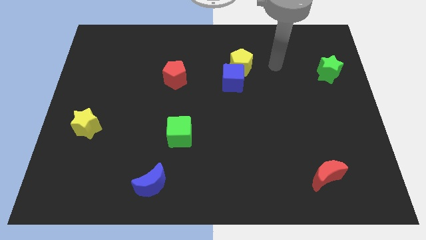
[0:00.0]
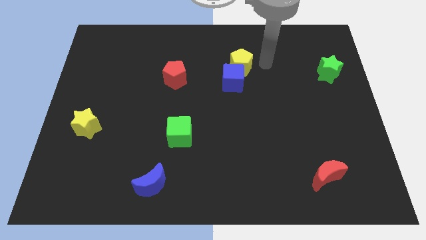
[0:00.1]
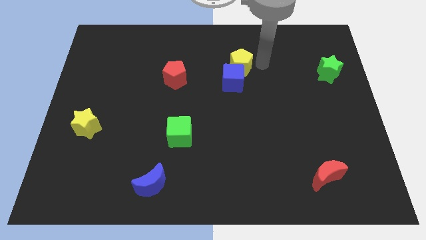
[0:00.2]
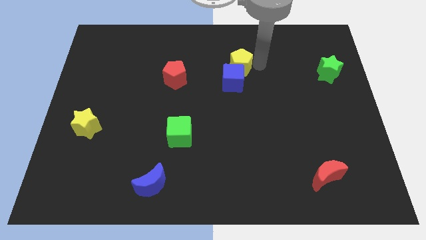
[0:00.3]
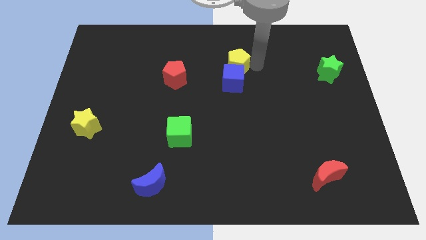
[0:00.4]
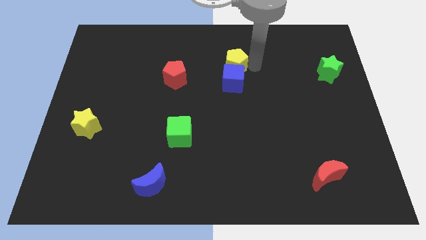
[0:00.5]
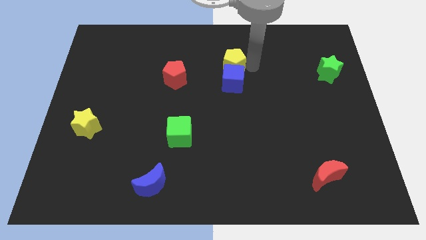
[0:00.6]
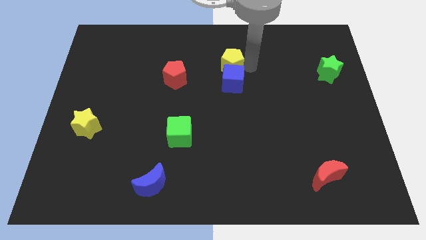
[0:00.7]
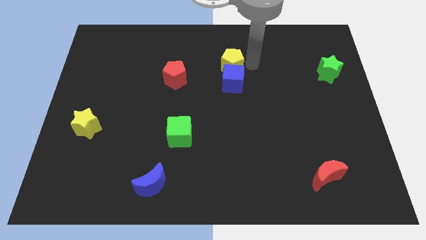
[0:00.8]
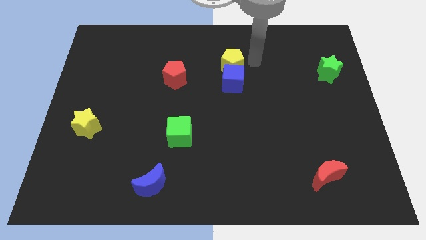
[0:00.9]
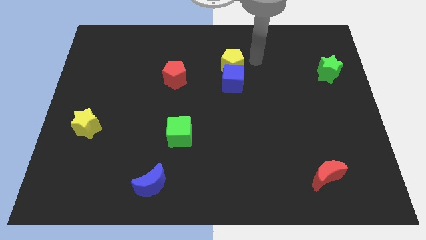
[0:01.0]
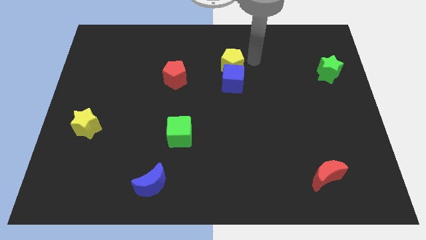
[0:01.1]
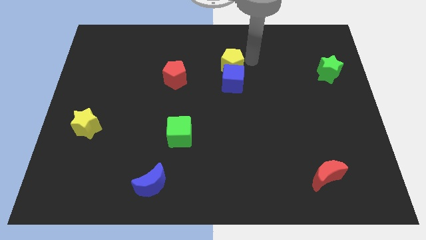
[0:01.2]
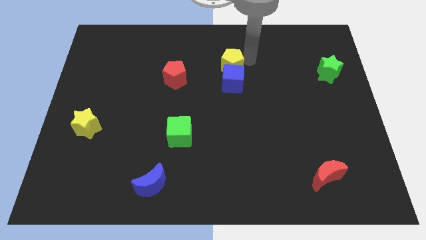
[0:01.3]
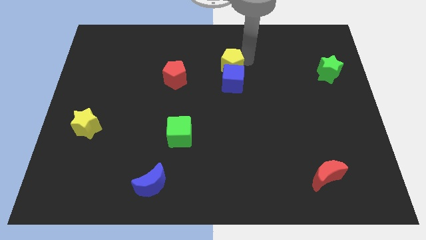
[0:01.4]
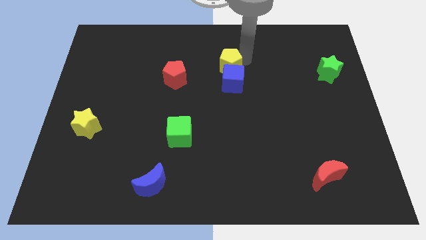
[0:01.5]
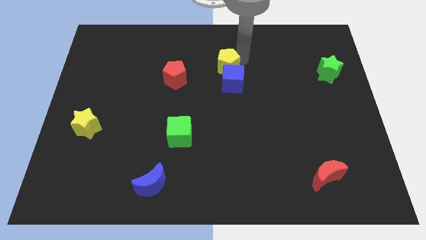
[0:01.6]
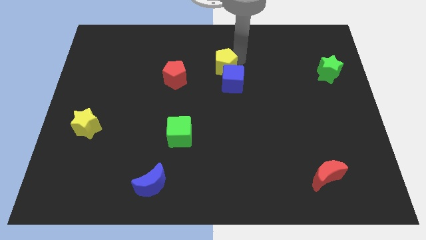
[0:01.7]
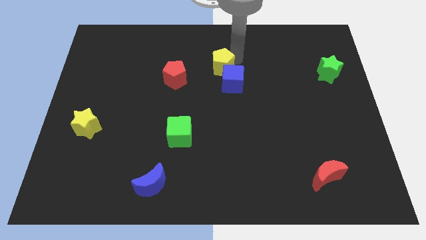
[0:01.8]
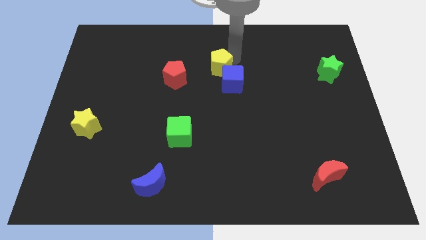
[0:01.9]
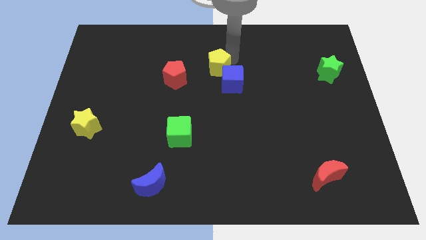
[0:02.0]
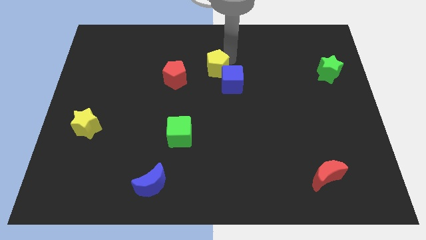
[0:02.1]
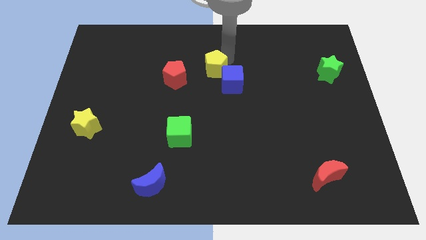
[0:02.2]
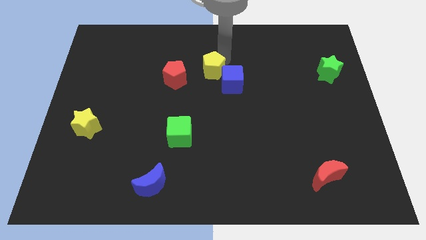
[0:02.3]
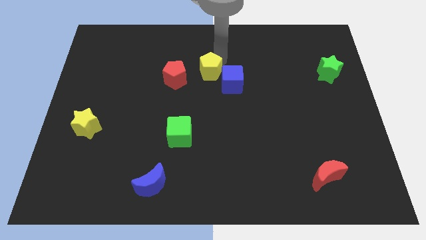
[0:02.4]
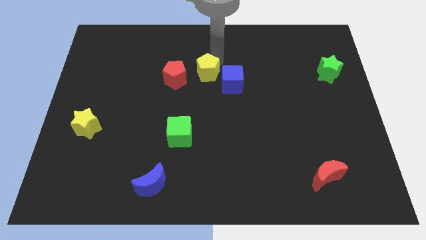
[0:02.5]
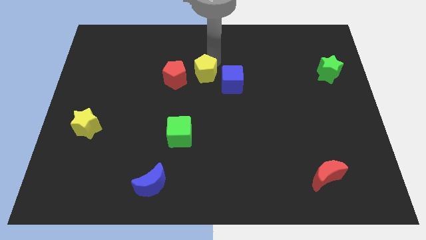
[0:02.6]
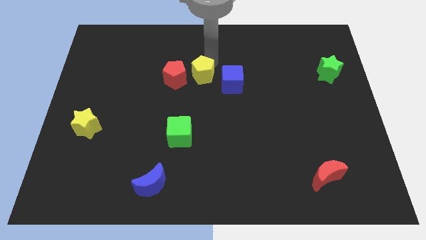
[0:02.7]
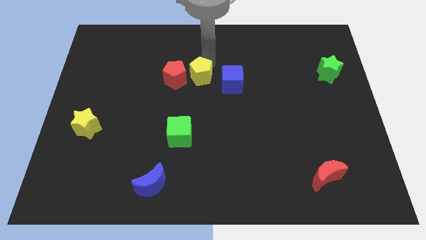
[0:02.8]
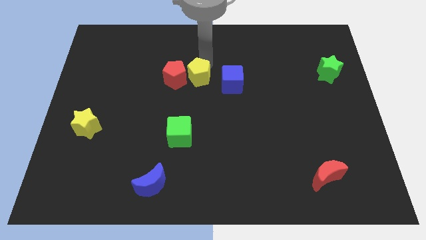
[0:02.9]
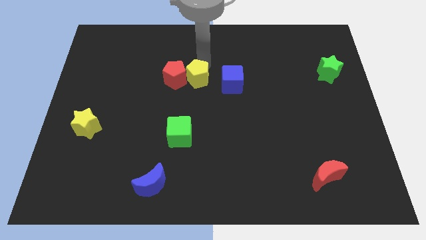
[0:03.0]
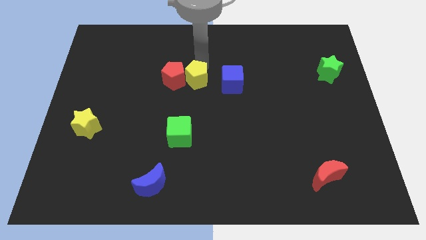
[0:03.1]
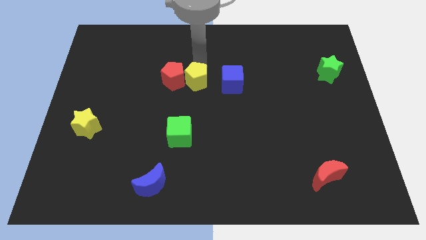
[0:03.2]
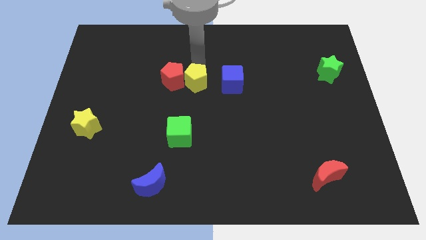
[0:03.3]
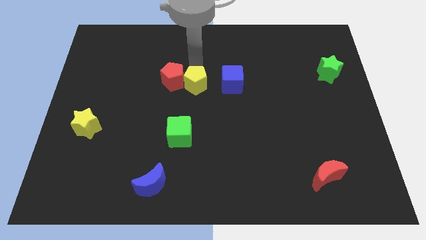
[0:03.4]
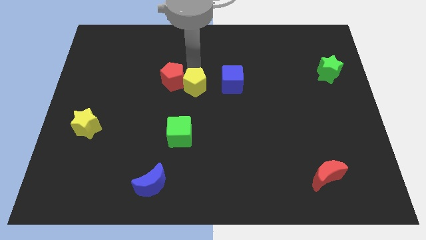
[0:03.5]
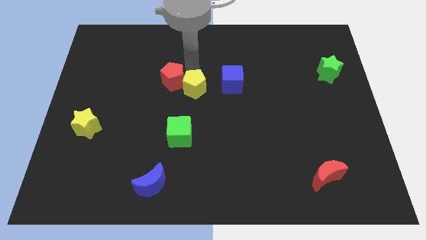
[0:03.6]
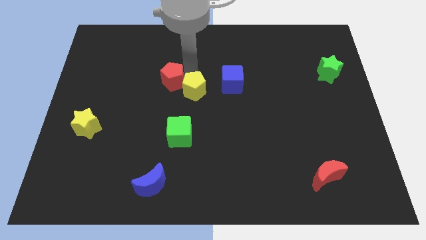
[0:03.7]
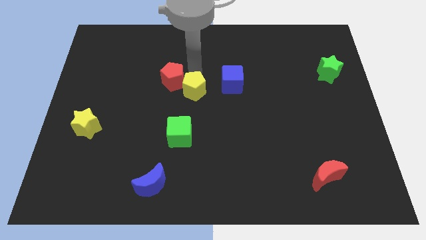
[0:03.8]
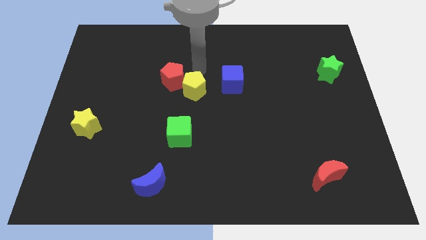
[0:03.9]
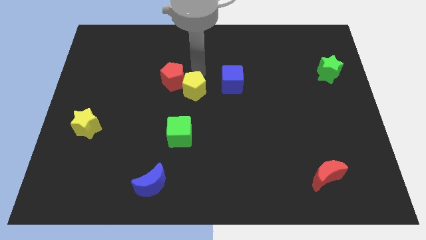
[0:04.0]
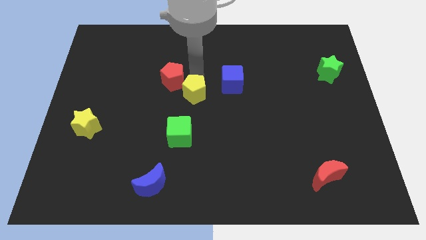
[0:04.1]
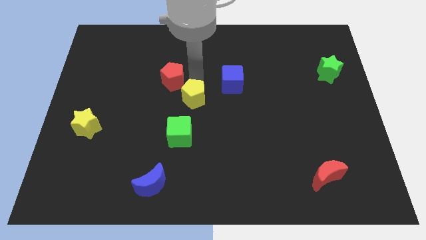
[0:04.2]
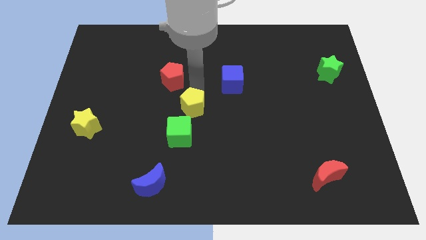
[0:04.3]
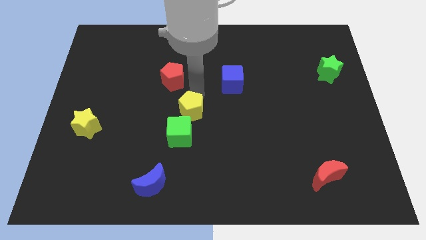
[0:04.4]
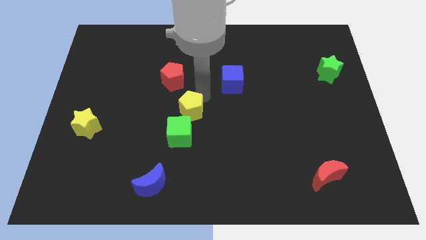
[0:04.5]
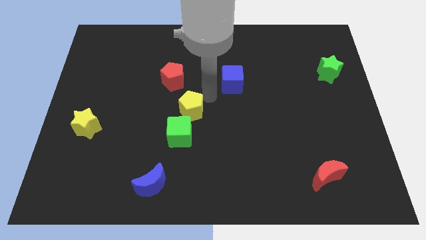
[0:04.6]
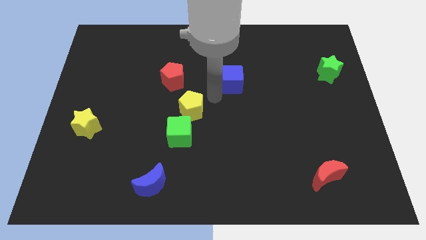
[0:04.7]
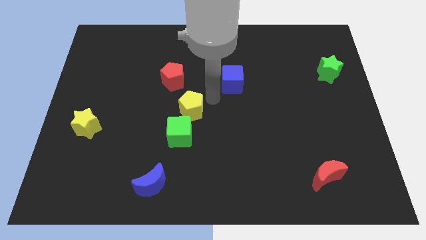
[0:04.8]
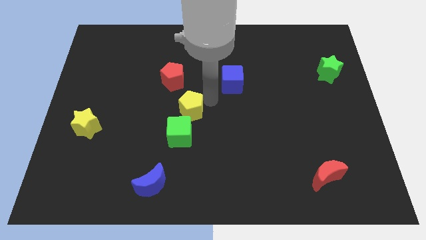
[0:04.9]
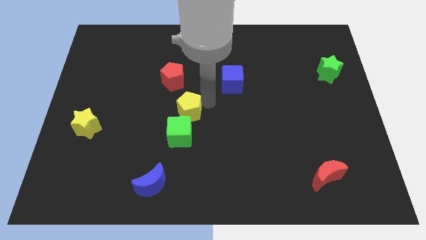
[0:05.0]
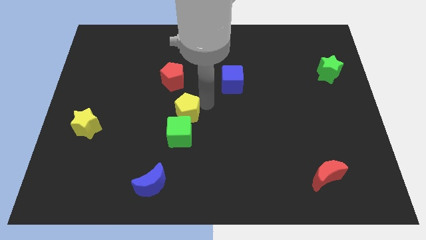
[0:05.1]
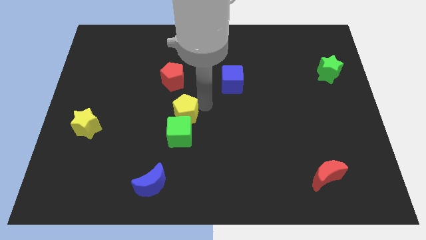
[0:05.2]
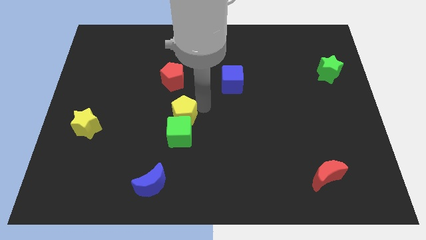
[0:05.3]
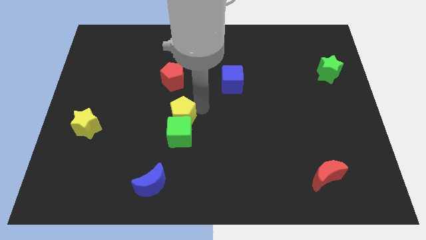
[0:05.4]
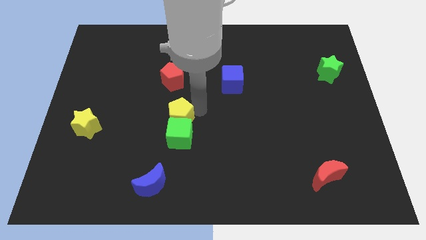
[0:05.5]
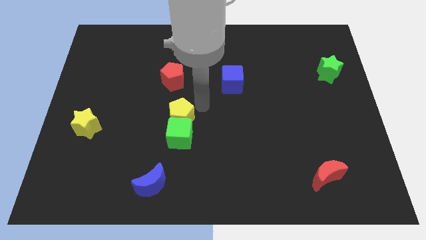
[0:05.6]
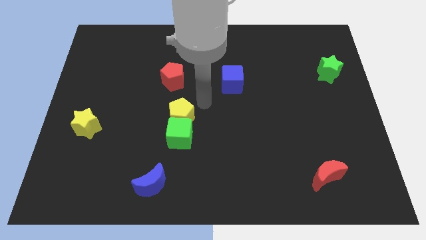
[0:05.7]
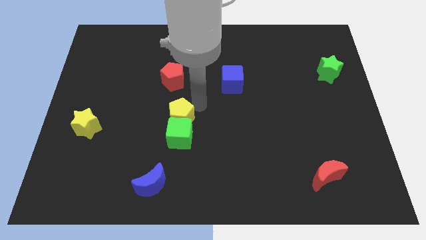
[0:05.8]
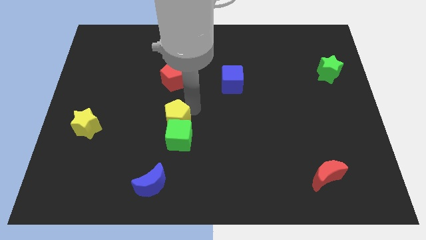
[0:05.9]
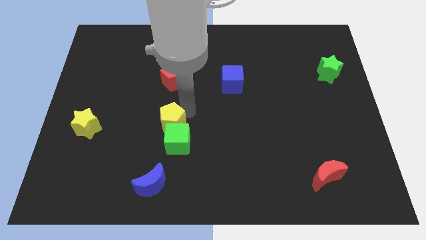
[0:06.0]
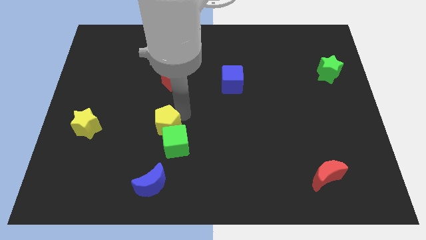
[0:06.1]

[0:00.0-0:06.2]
put the yellow pentagon to the top side of the blue moon

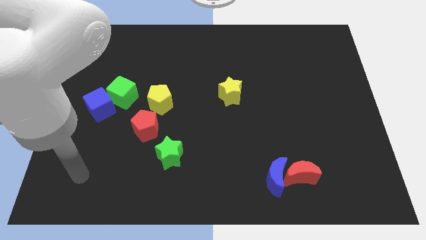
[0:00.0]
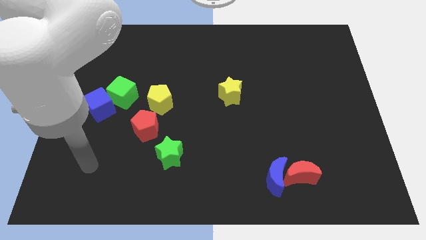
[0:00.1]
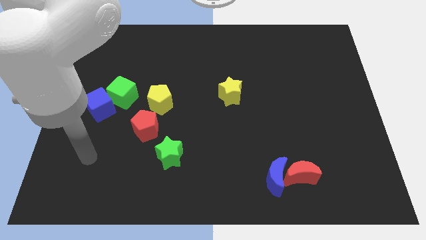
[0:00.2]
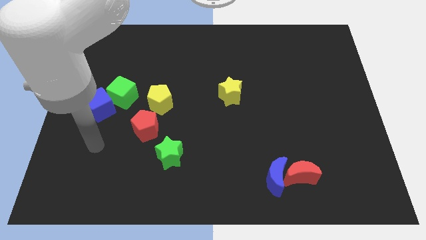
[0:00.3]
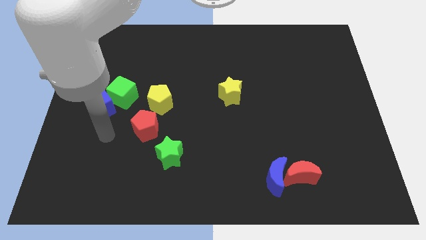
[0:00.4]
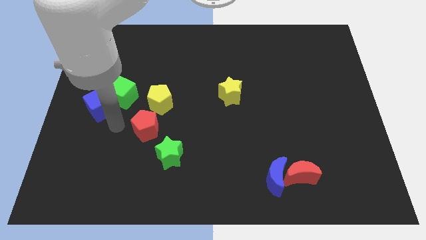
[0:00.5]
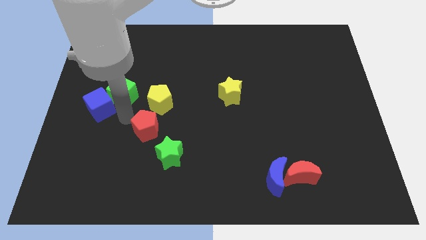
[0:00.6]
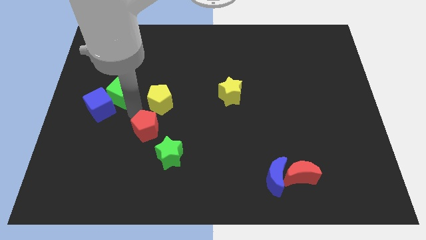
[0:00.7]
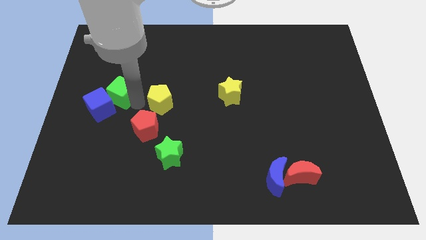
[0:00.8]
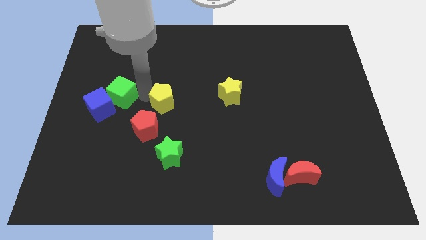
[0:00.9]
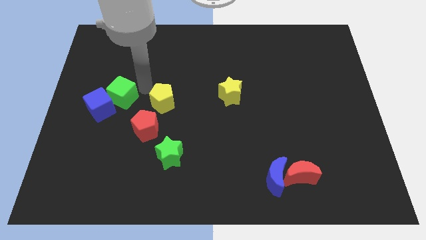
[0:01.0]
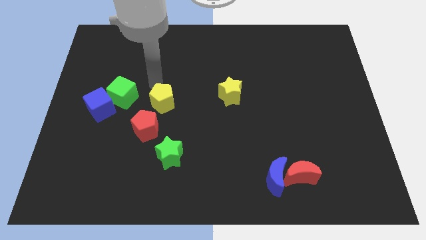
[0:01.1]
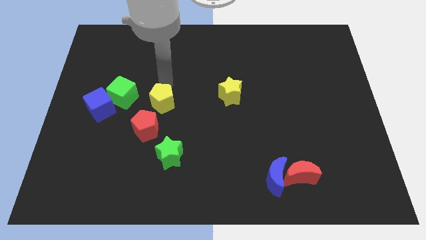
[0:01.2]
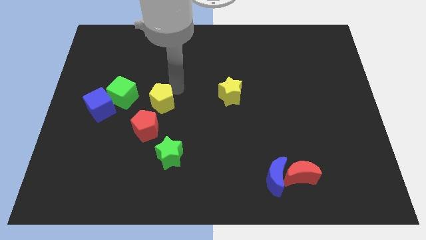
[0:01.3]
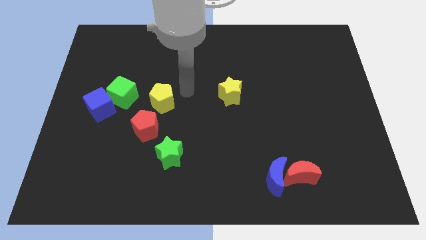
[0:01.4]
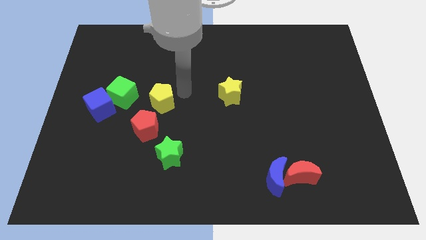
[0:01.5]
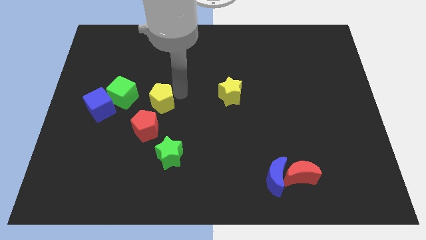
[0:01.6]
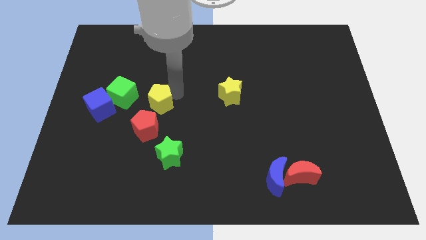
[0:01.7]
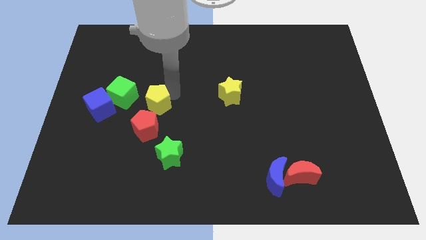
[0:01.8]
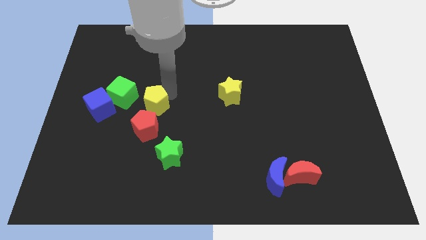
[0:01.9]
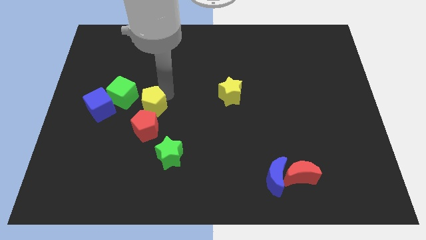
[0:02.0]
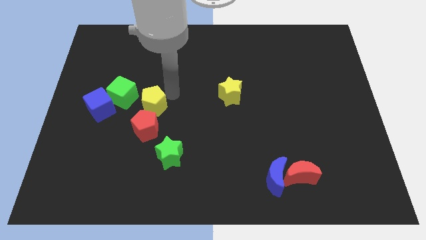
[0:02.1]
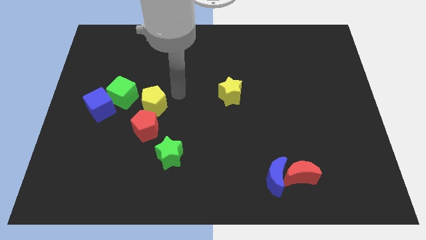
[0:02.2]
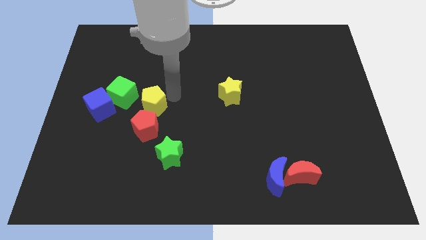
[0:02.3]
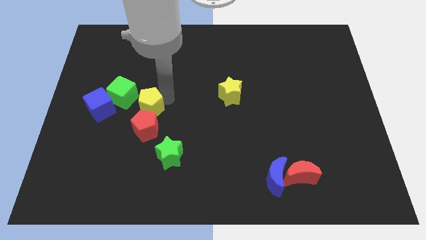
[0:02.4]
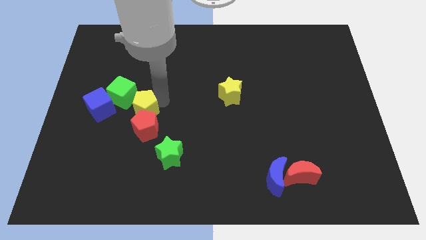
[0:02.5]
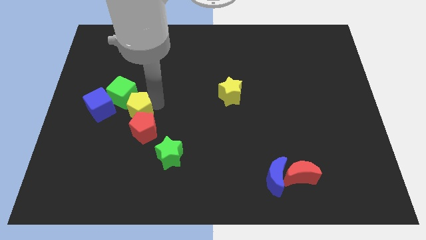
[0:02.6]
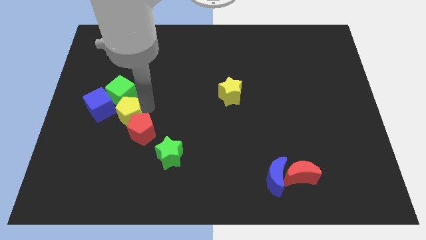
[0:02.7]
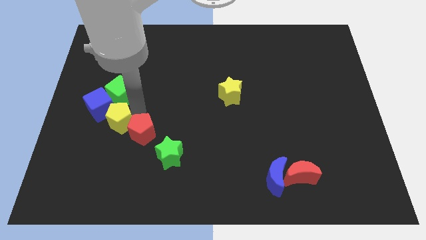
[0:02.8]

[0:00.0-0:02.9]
put the yellow pentagon to the left side of the red pentagon
